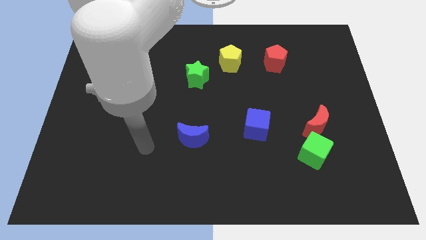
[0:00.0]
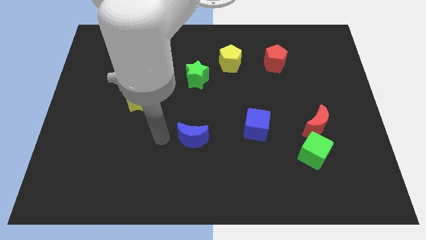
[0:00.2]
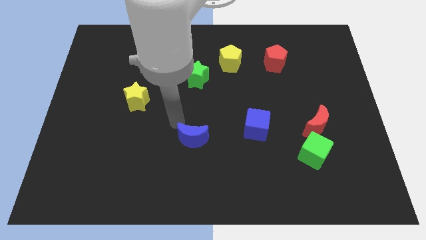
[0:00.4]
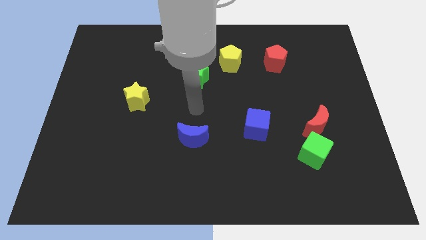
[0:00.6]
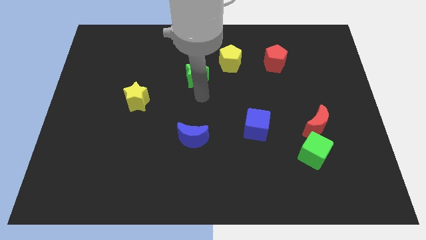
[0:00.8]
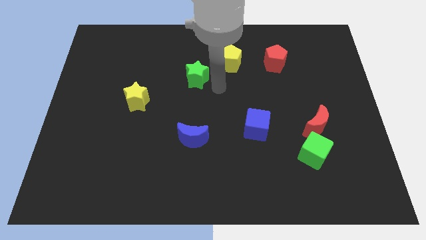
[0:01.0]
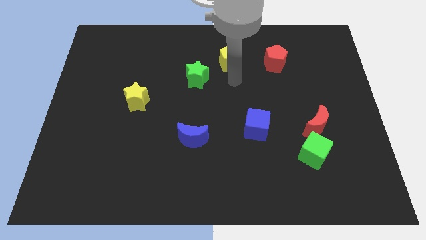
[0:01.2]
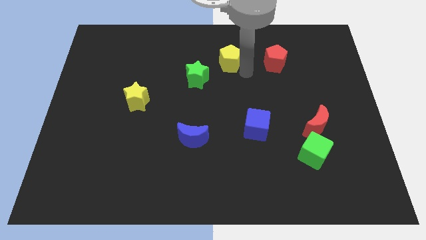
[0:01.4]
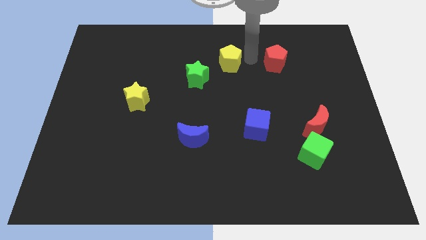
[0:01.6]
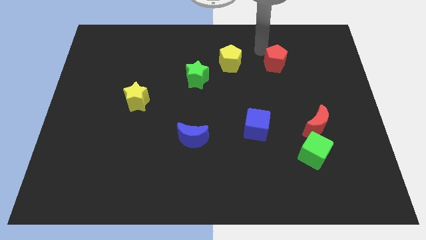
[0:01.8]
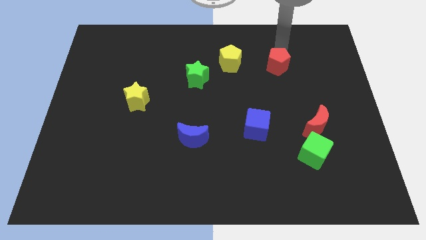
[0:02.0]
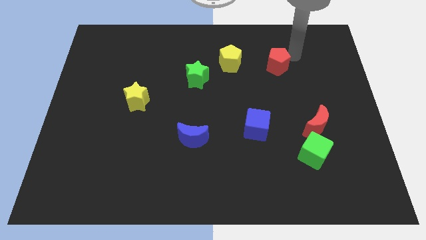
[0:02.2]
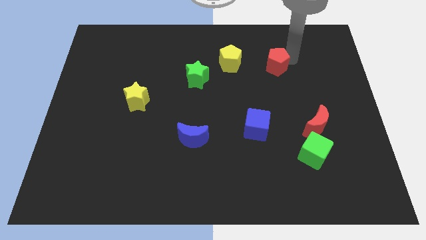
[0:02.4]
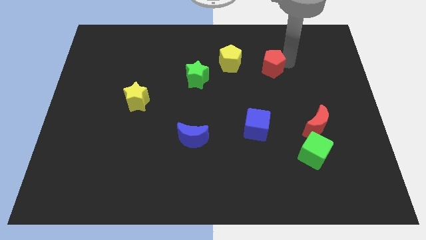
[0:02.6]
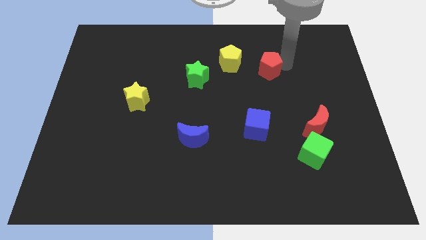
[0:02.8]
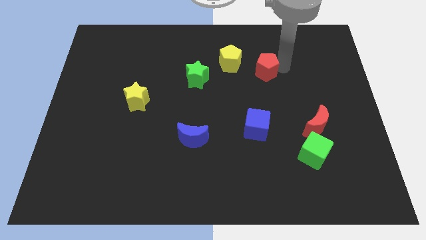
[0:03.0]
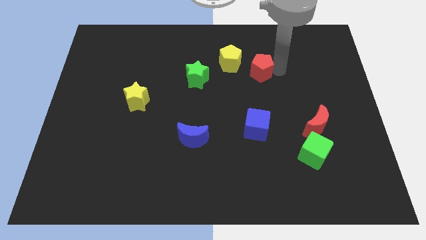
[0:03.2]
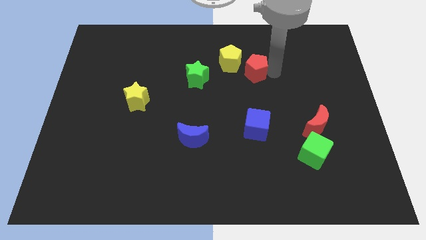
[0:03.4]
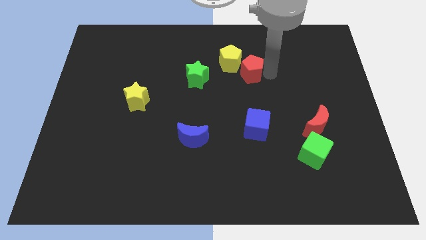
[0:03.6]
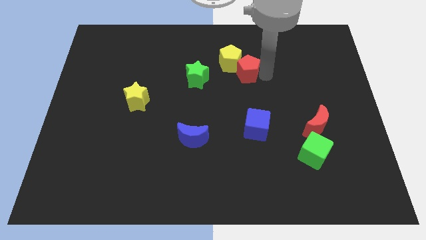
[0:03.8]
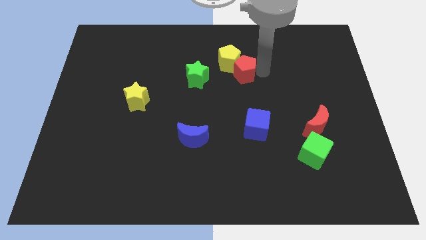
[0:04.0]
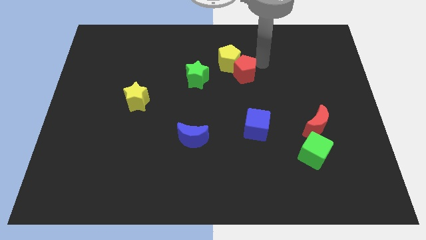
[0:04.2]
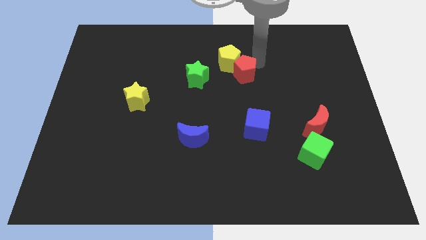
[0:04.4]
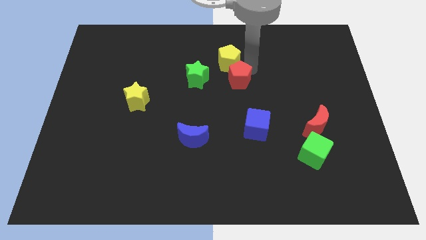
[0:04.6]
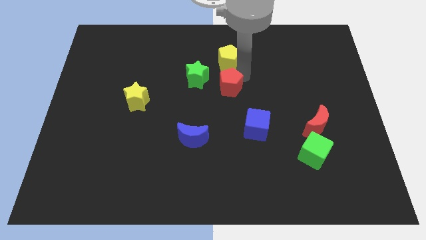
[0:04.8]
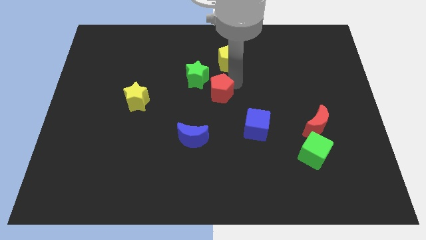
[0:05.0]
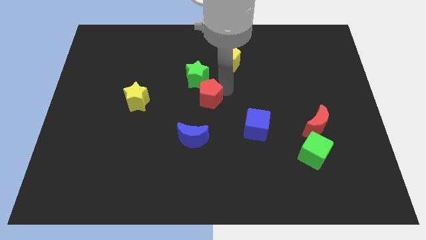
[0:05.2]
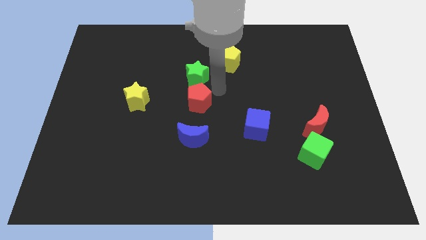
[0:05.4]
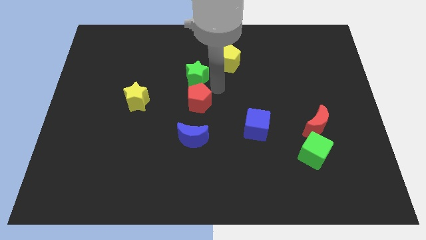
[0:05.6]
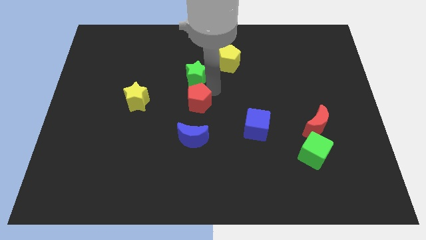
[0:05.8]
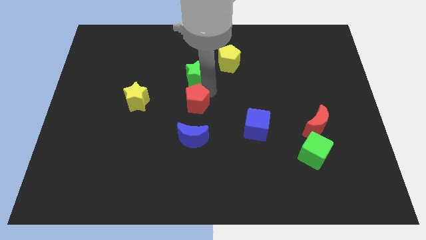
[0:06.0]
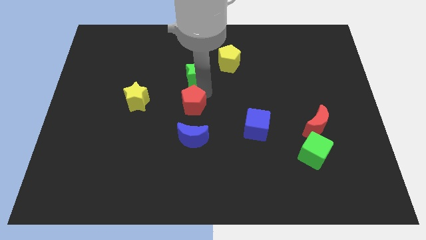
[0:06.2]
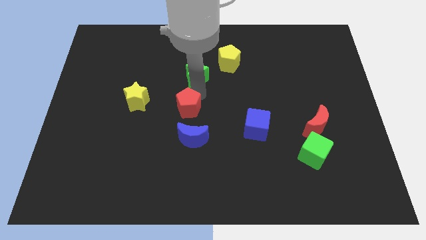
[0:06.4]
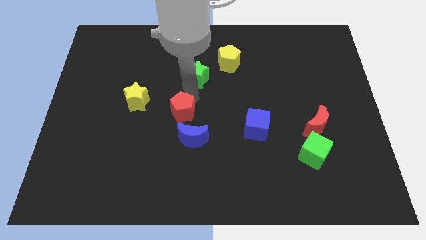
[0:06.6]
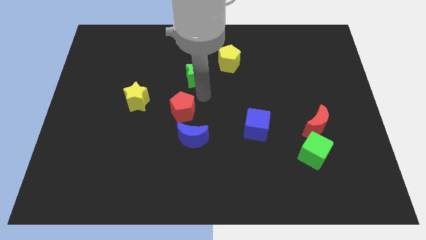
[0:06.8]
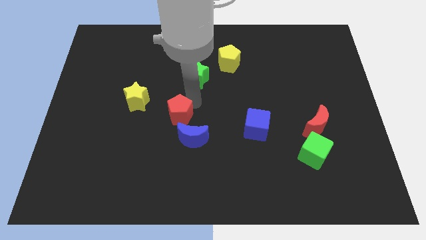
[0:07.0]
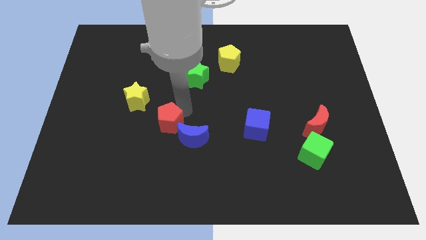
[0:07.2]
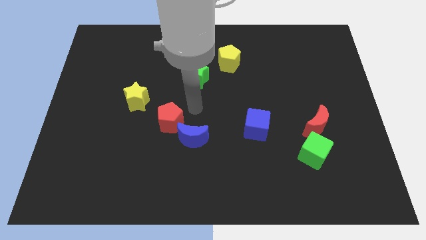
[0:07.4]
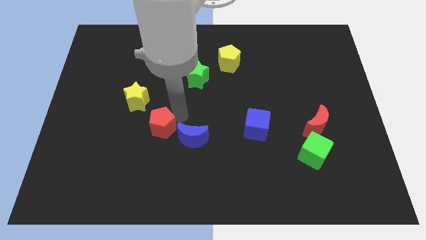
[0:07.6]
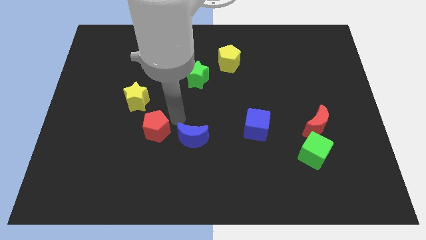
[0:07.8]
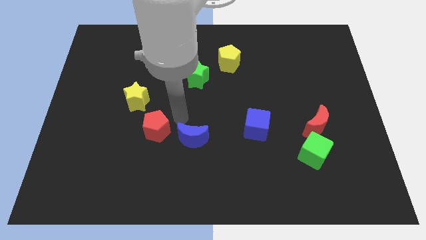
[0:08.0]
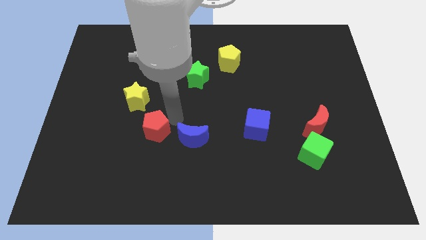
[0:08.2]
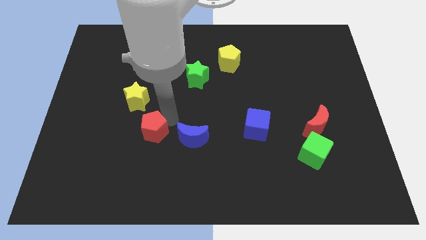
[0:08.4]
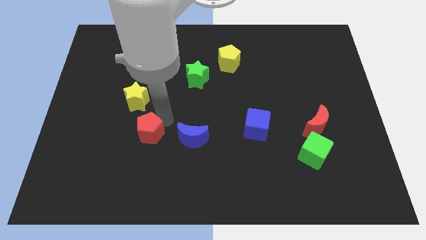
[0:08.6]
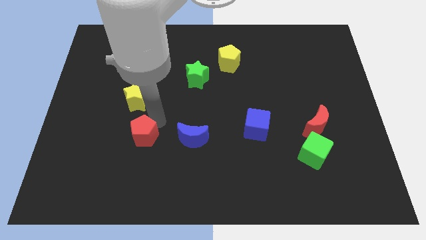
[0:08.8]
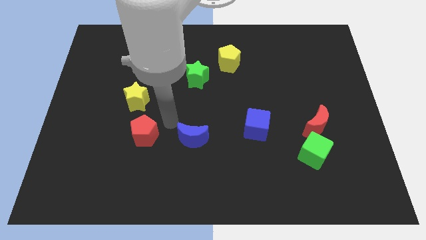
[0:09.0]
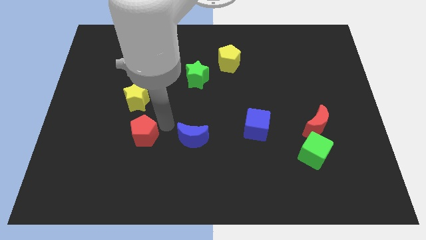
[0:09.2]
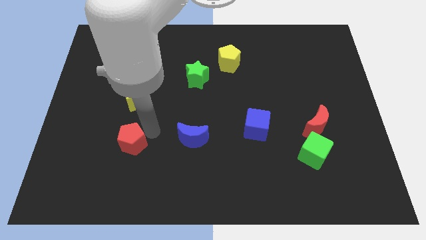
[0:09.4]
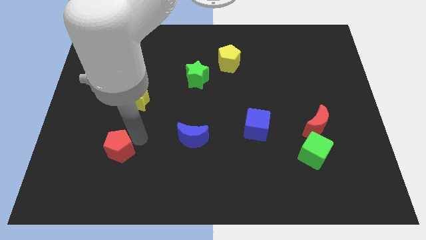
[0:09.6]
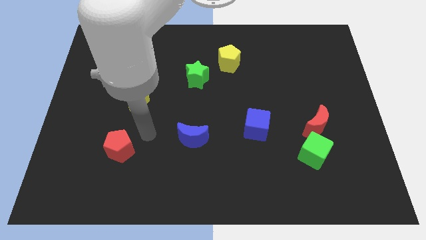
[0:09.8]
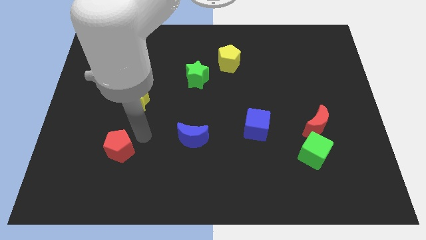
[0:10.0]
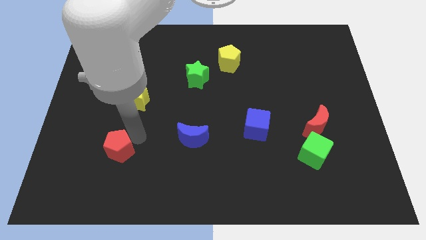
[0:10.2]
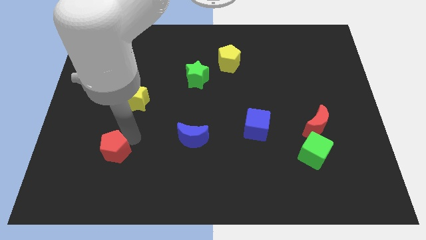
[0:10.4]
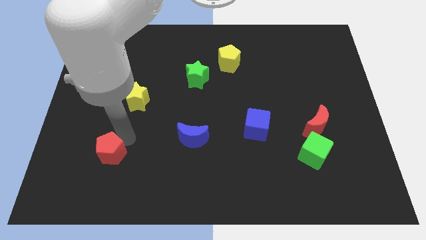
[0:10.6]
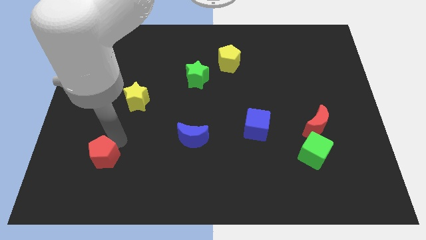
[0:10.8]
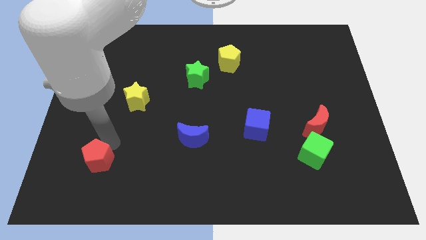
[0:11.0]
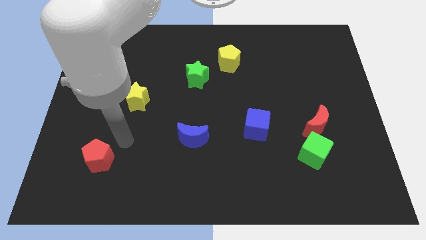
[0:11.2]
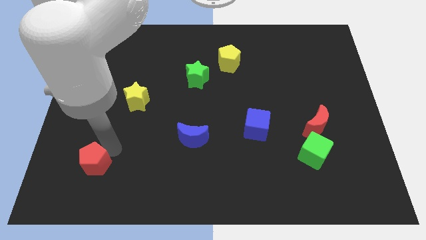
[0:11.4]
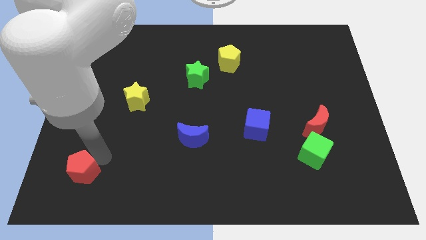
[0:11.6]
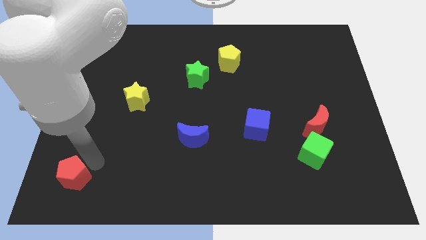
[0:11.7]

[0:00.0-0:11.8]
push the red pentagon to the bottom left of the board
